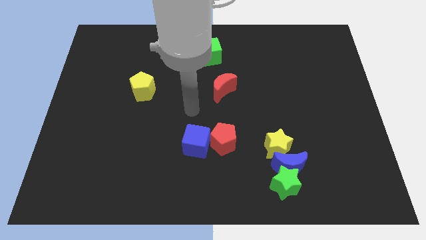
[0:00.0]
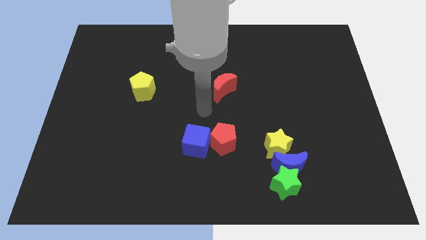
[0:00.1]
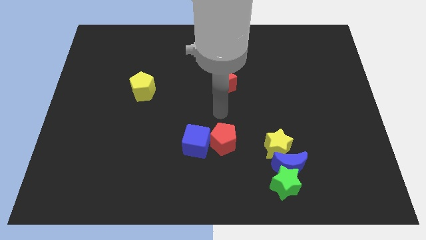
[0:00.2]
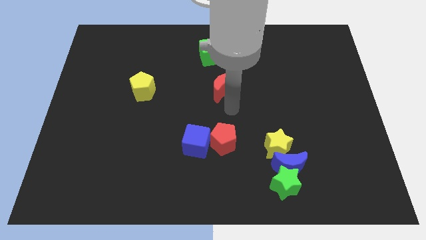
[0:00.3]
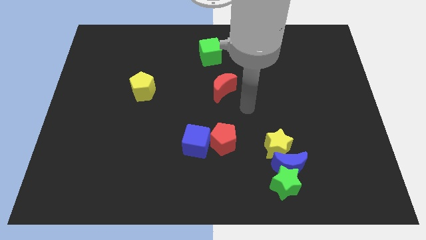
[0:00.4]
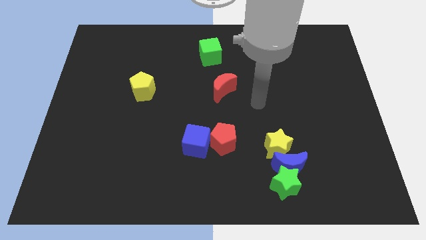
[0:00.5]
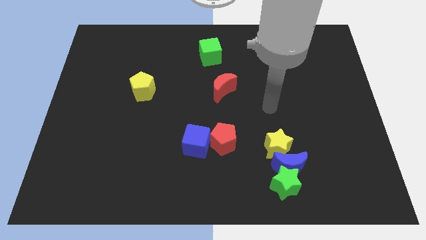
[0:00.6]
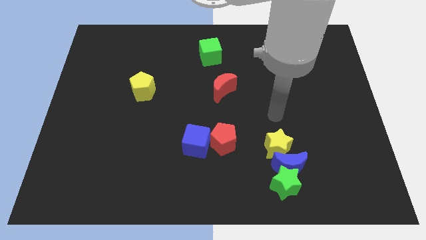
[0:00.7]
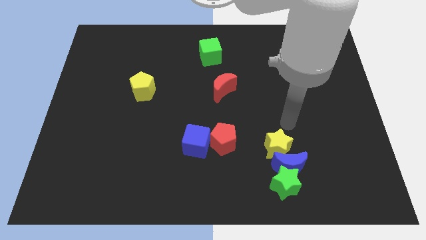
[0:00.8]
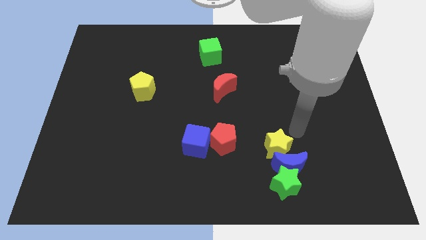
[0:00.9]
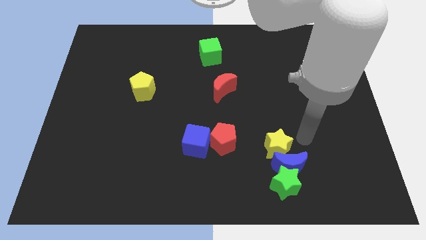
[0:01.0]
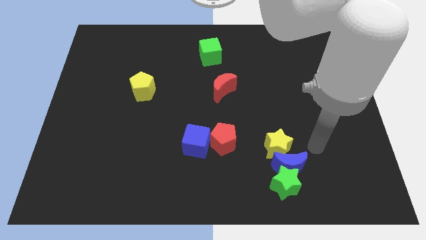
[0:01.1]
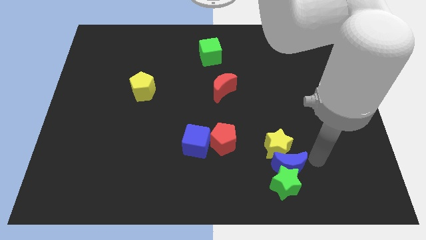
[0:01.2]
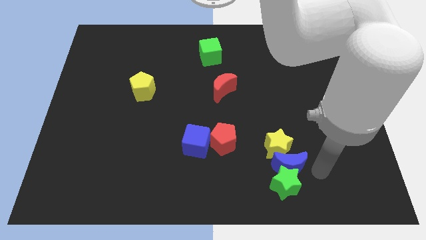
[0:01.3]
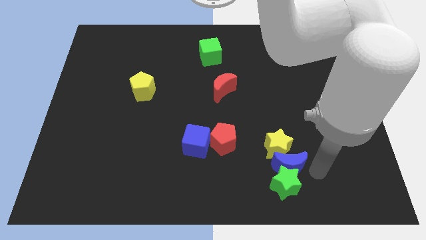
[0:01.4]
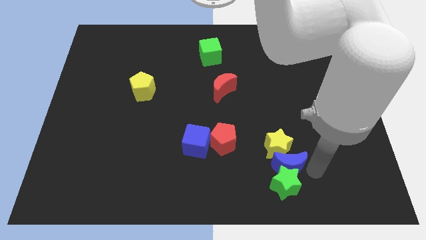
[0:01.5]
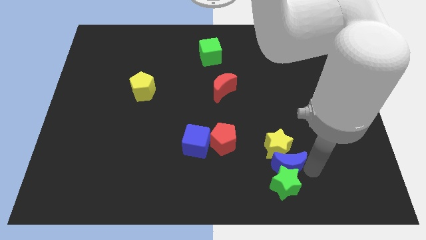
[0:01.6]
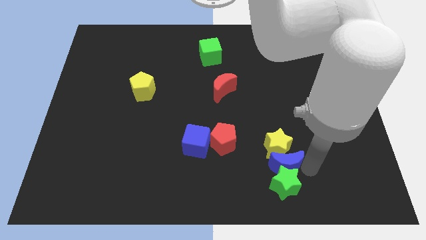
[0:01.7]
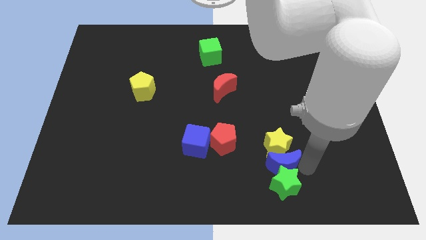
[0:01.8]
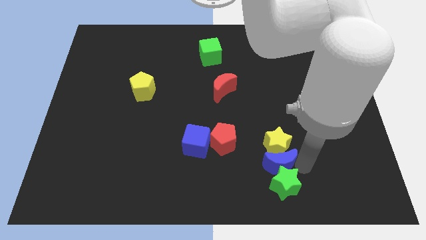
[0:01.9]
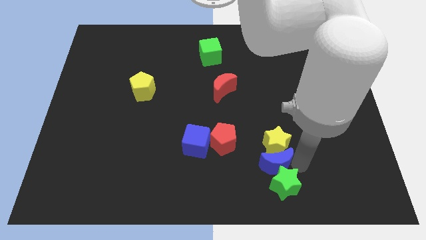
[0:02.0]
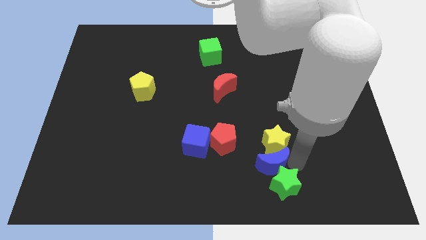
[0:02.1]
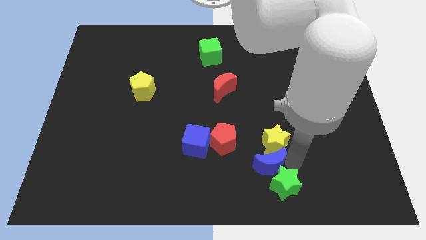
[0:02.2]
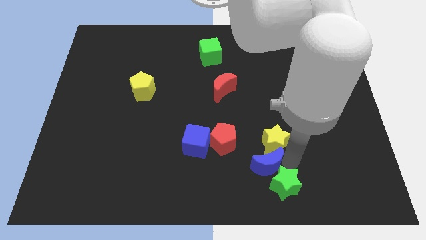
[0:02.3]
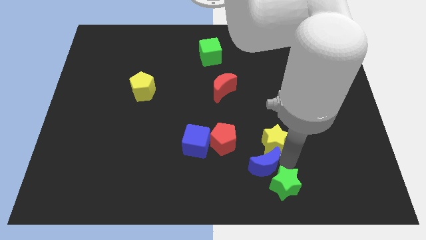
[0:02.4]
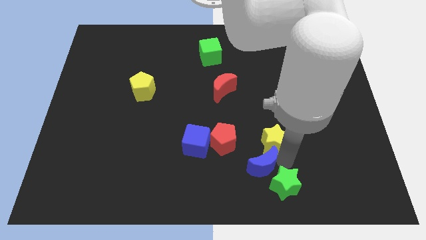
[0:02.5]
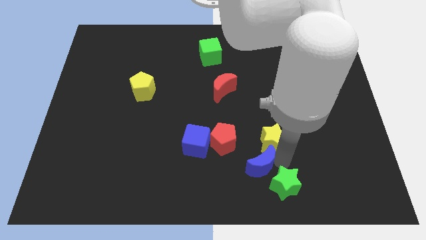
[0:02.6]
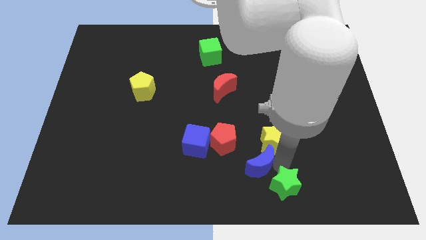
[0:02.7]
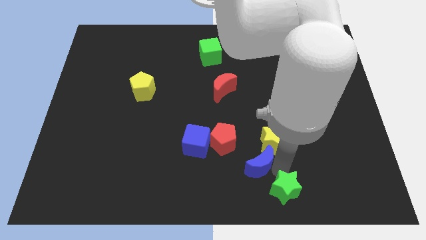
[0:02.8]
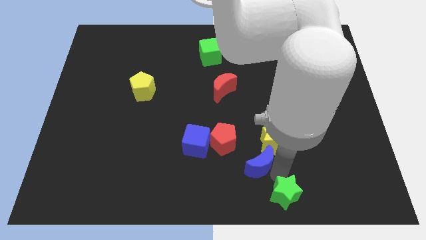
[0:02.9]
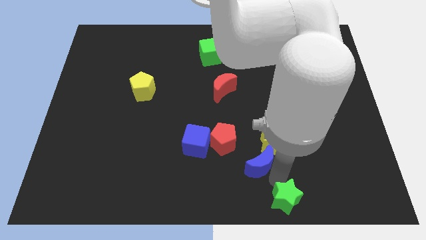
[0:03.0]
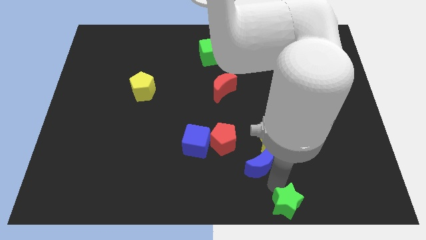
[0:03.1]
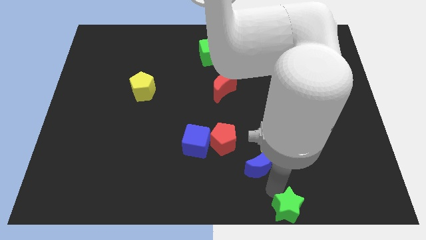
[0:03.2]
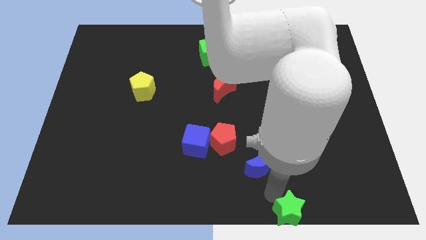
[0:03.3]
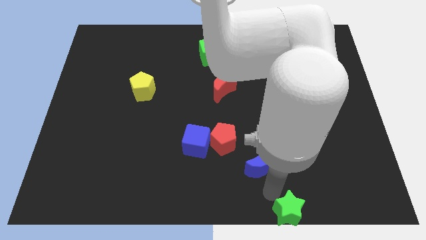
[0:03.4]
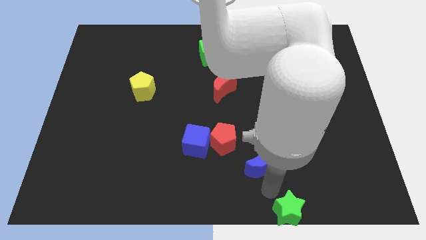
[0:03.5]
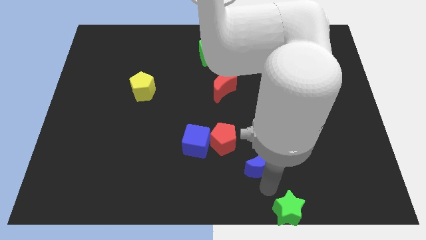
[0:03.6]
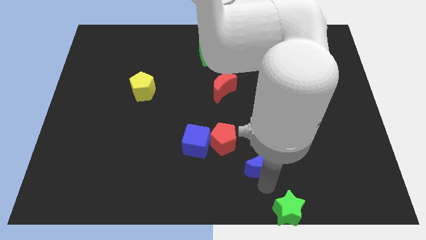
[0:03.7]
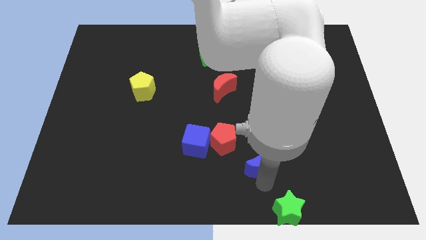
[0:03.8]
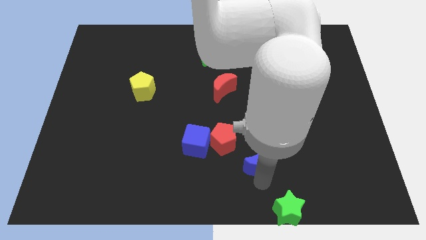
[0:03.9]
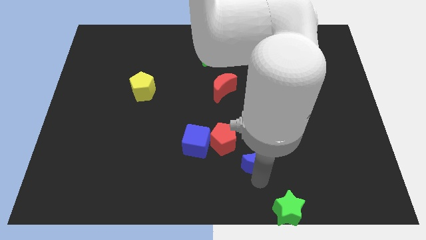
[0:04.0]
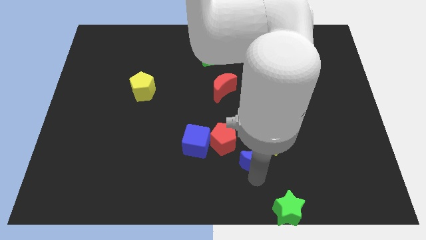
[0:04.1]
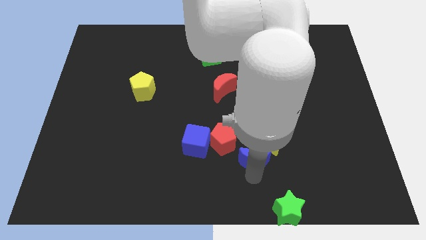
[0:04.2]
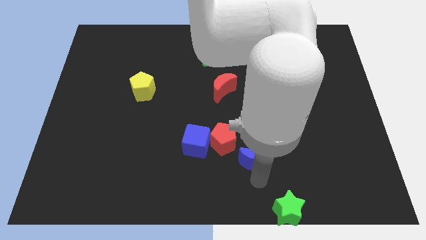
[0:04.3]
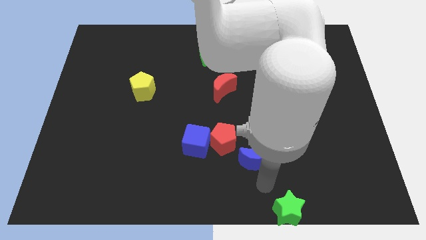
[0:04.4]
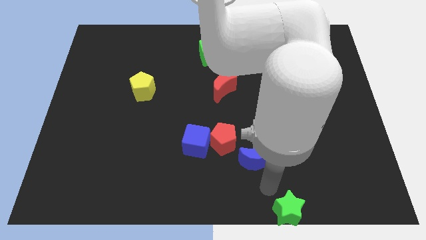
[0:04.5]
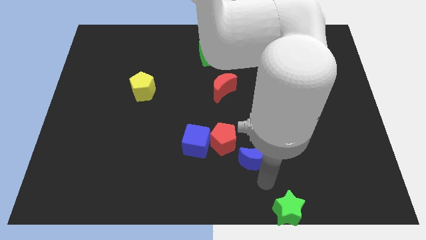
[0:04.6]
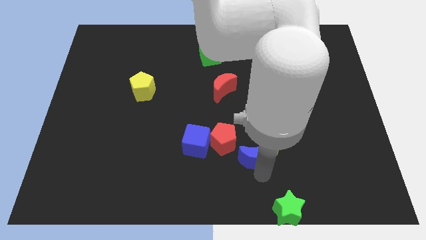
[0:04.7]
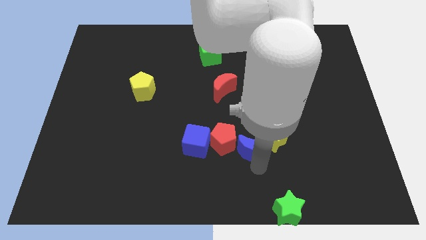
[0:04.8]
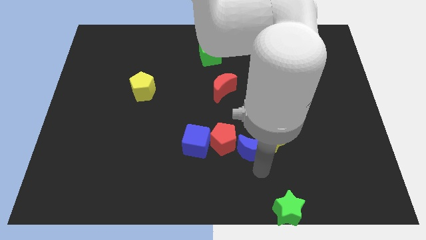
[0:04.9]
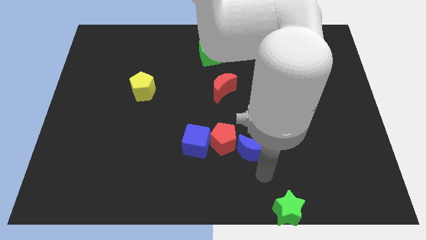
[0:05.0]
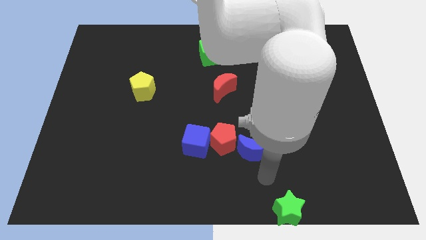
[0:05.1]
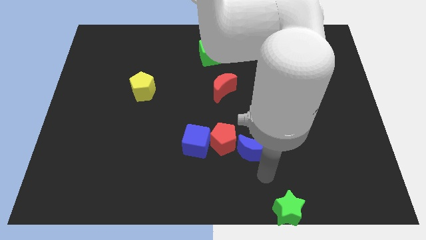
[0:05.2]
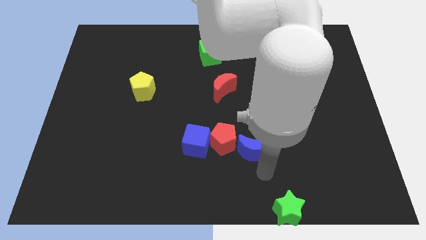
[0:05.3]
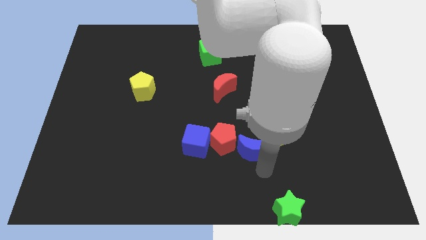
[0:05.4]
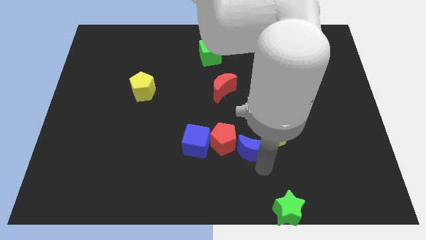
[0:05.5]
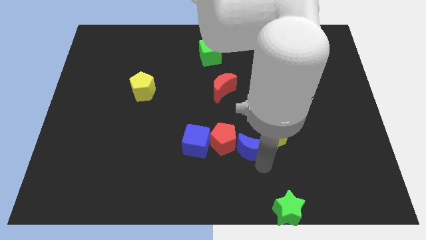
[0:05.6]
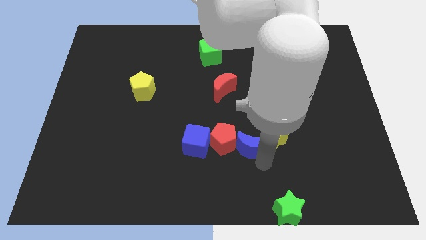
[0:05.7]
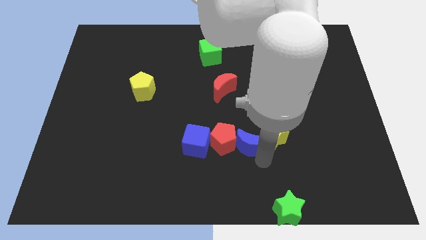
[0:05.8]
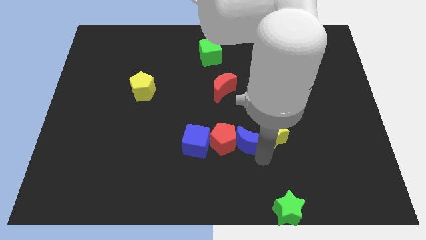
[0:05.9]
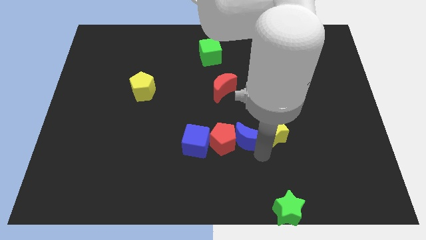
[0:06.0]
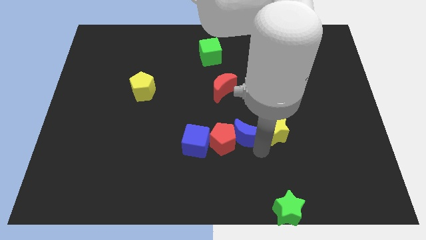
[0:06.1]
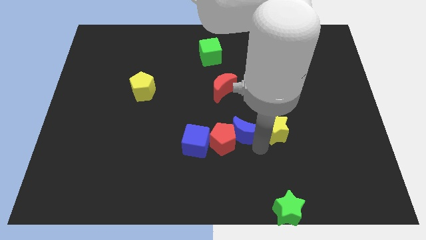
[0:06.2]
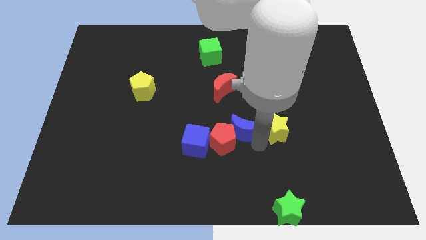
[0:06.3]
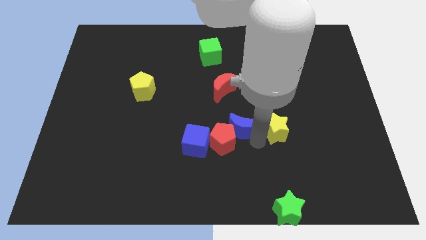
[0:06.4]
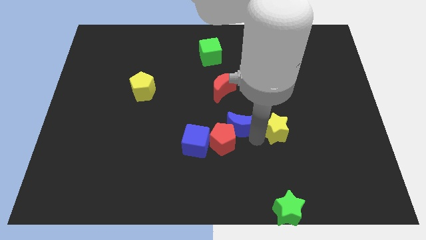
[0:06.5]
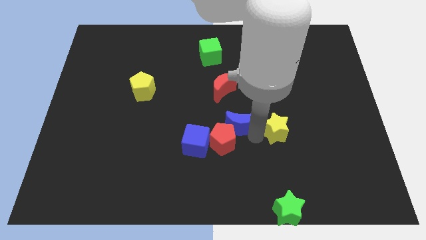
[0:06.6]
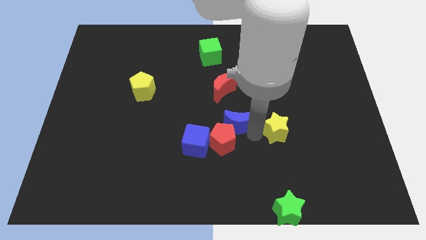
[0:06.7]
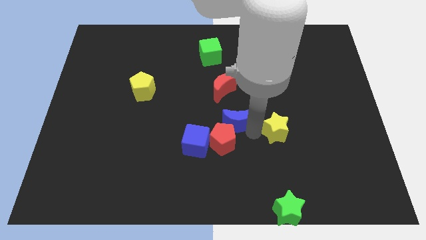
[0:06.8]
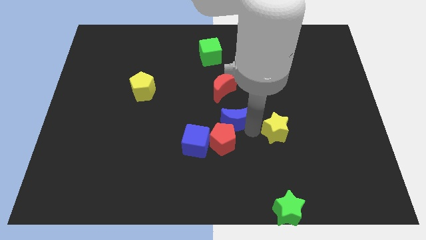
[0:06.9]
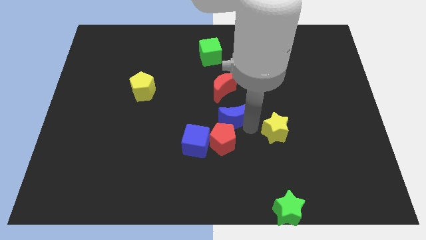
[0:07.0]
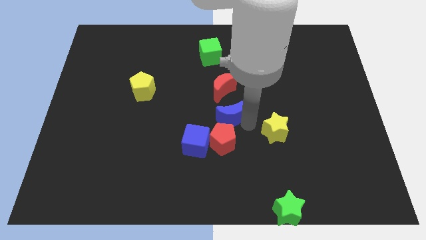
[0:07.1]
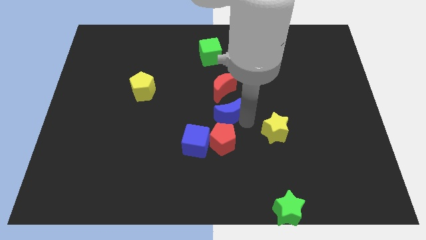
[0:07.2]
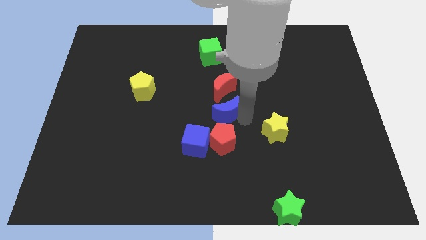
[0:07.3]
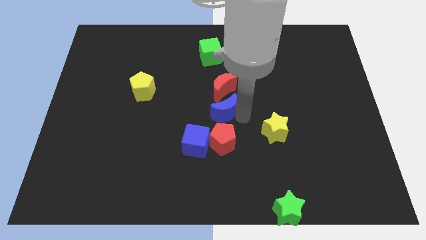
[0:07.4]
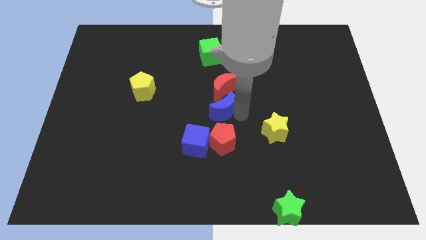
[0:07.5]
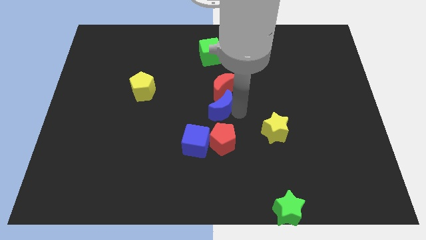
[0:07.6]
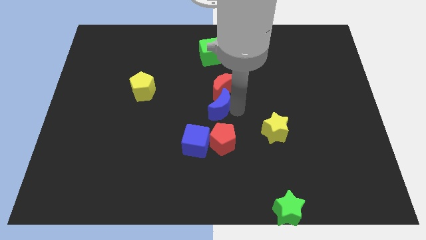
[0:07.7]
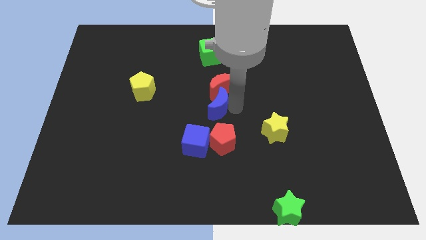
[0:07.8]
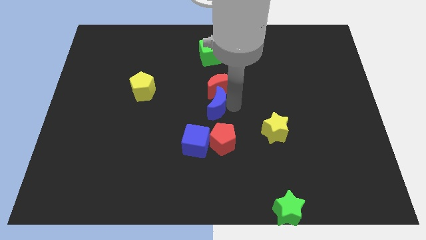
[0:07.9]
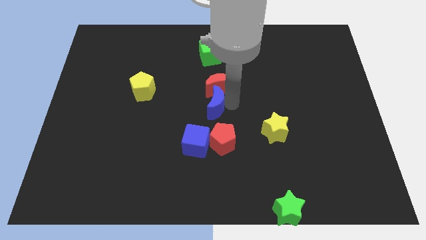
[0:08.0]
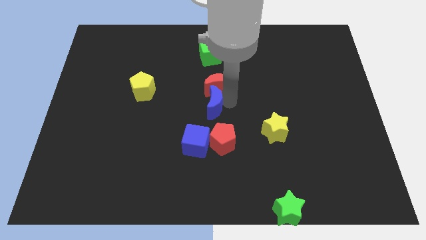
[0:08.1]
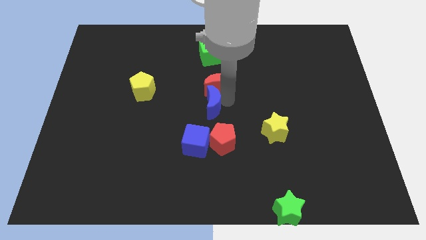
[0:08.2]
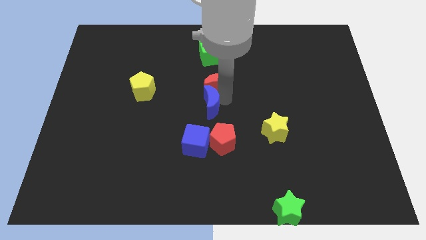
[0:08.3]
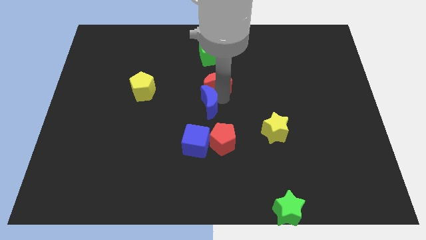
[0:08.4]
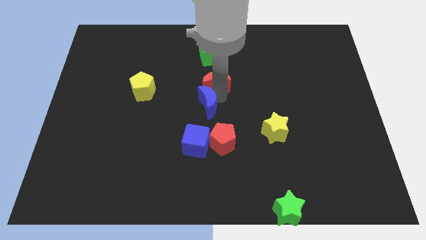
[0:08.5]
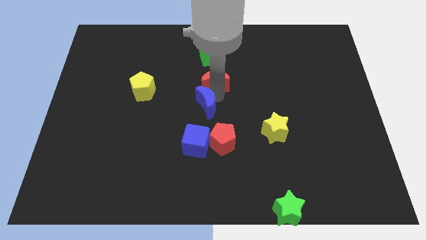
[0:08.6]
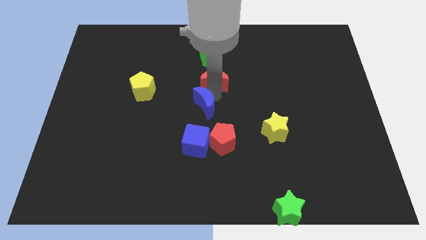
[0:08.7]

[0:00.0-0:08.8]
push the blue moon to the top left side of the red pentagon
